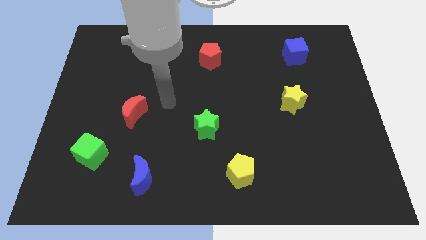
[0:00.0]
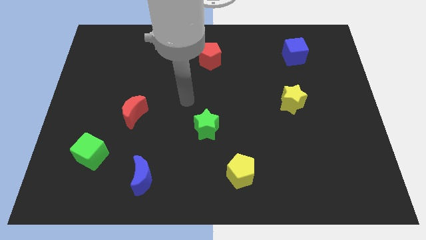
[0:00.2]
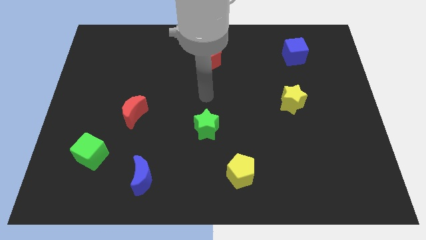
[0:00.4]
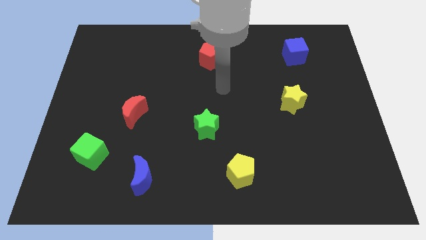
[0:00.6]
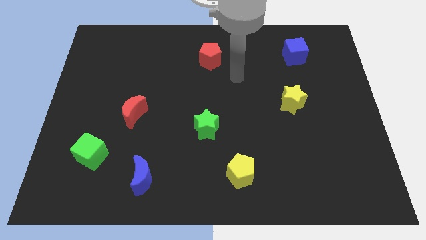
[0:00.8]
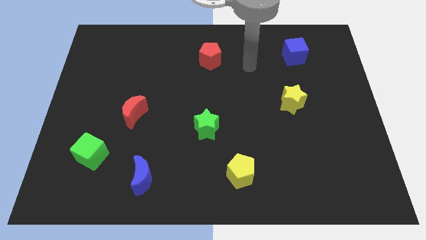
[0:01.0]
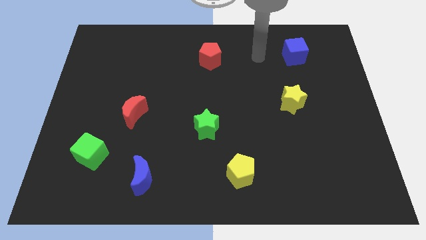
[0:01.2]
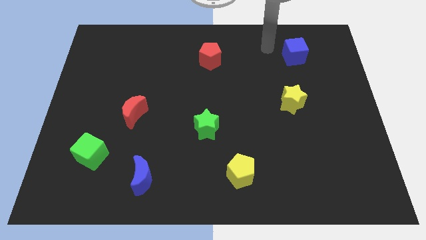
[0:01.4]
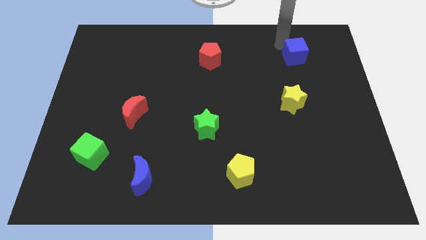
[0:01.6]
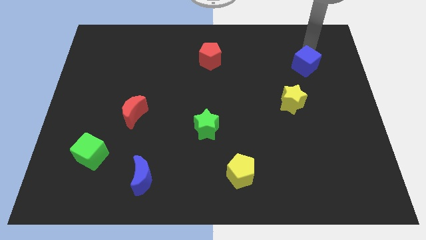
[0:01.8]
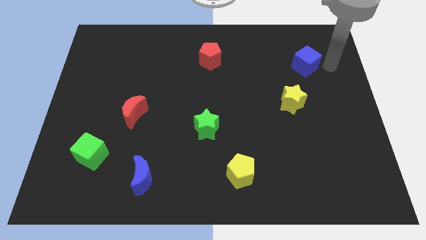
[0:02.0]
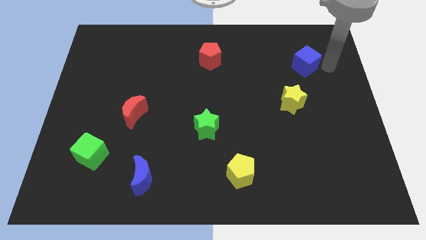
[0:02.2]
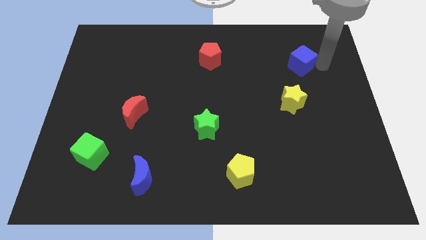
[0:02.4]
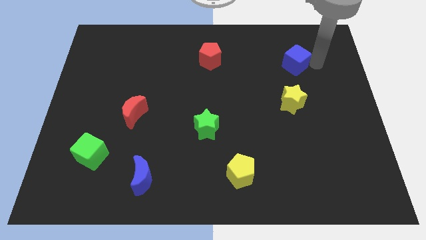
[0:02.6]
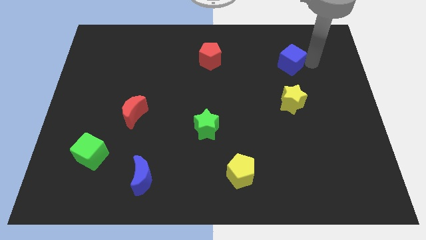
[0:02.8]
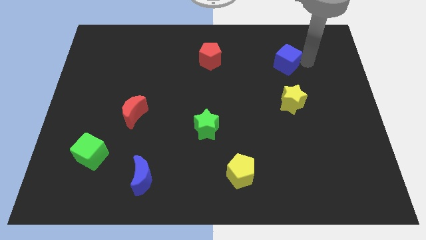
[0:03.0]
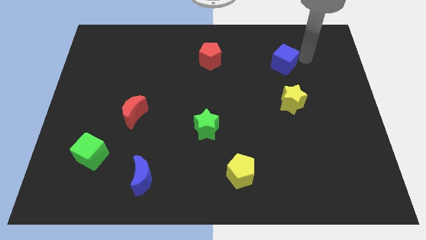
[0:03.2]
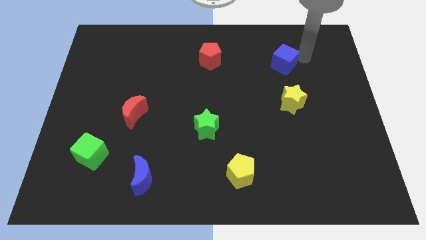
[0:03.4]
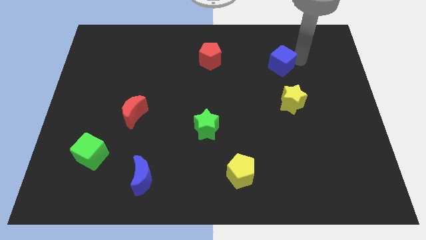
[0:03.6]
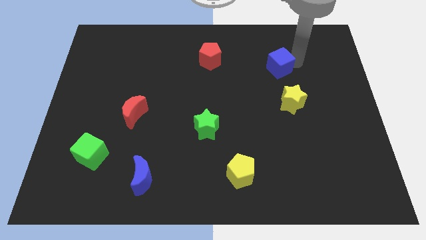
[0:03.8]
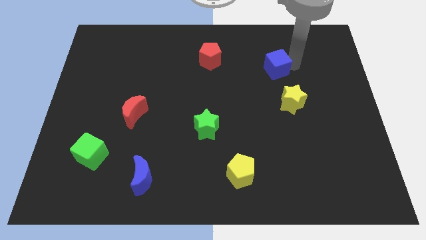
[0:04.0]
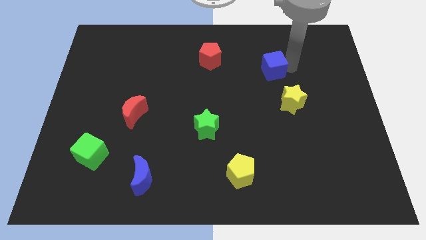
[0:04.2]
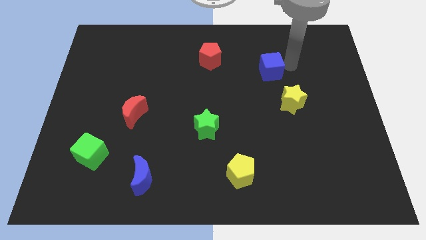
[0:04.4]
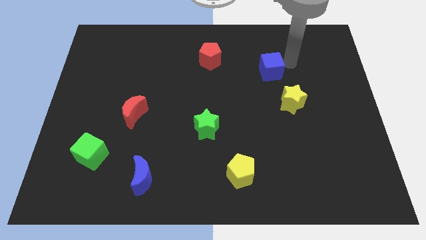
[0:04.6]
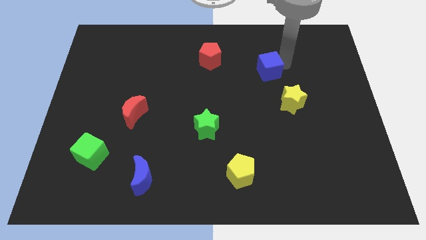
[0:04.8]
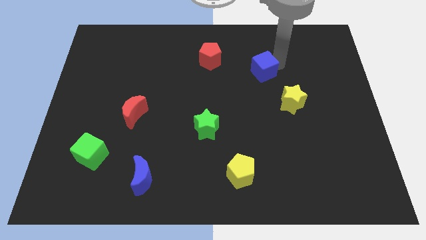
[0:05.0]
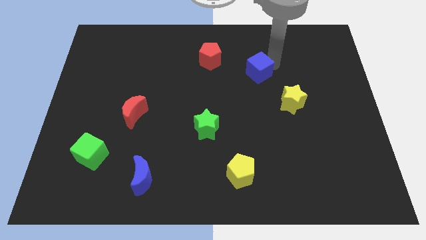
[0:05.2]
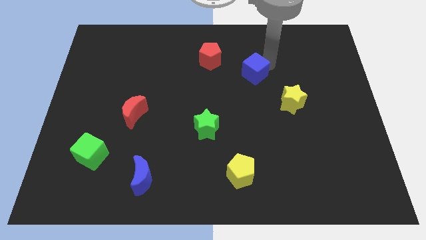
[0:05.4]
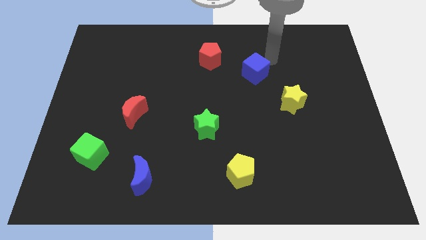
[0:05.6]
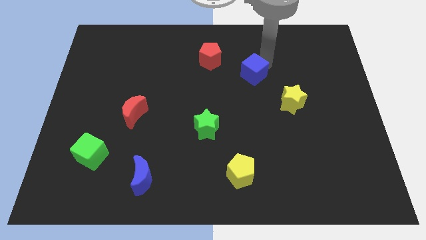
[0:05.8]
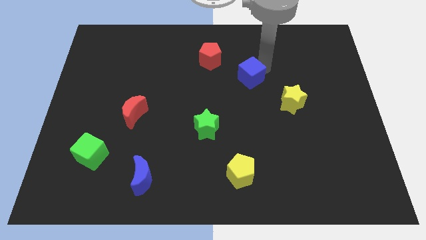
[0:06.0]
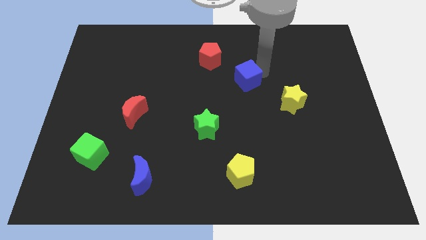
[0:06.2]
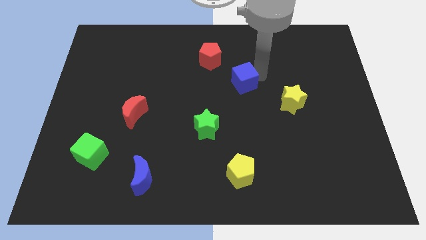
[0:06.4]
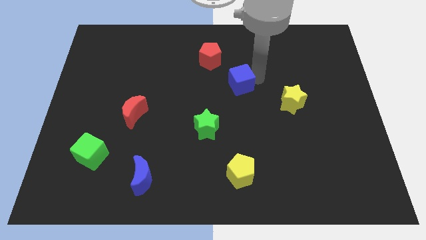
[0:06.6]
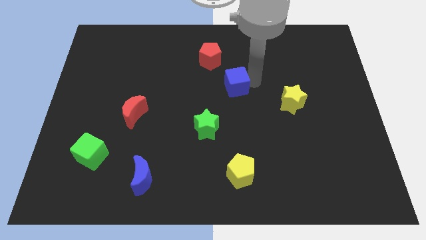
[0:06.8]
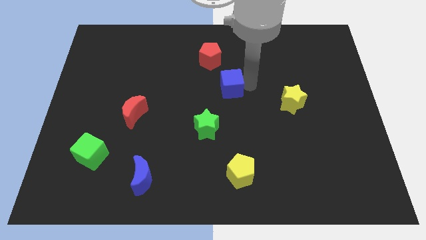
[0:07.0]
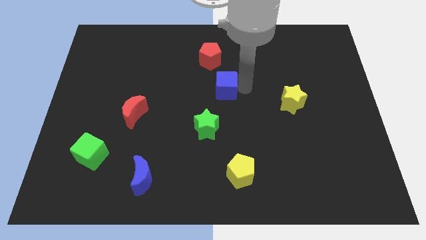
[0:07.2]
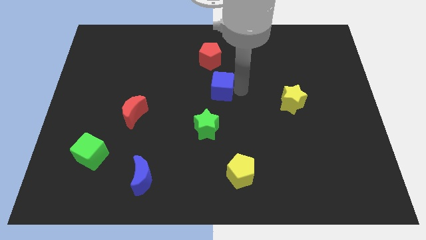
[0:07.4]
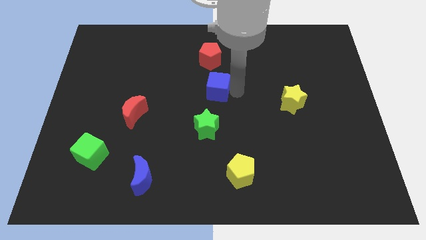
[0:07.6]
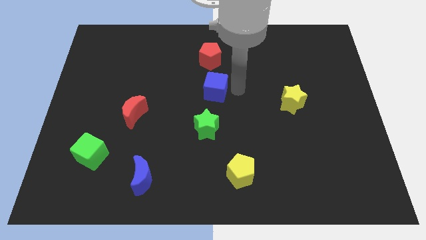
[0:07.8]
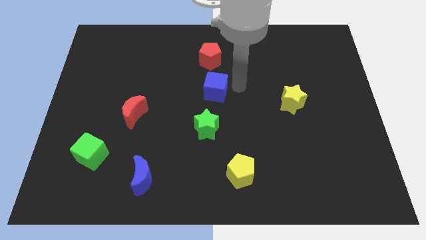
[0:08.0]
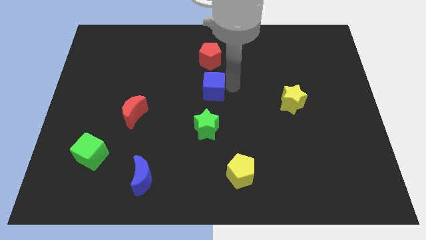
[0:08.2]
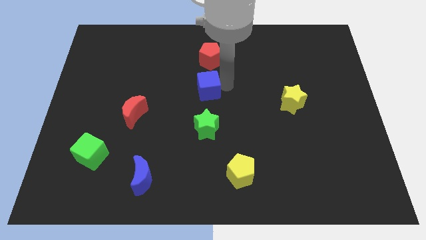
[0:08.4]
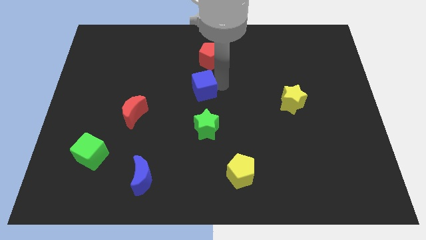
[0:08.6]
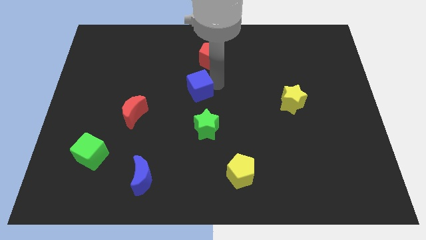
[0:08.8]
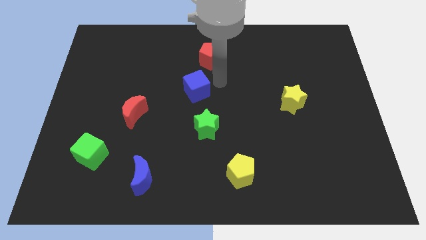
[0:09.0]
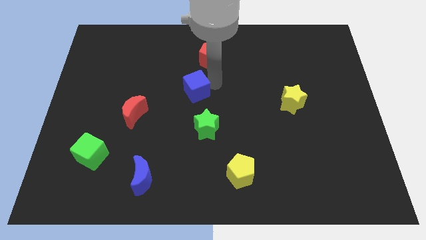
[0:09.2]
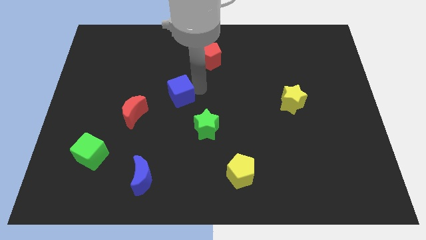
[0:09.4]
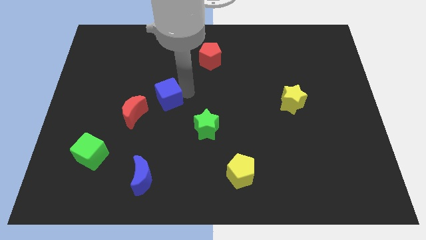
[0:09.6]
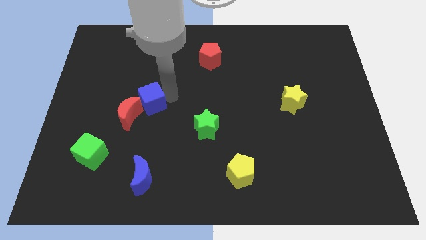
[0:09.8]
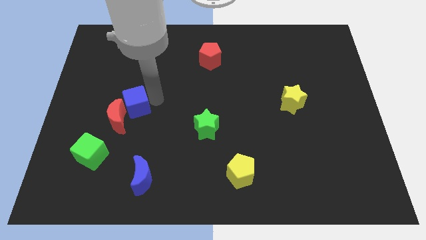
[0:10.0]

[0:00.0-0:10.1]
slide the blue cube to the red moon

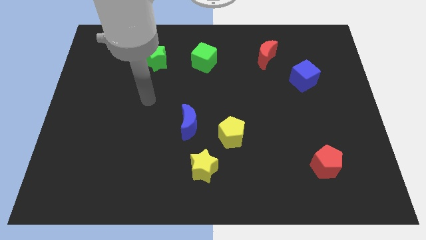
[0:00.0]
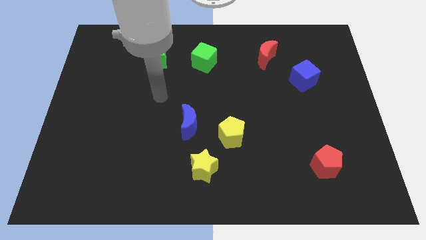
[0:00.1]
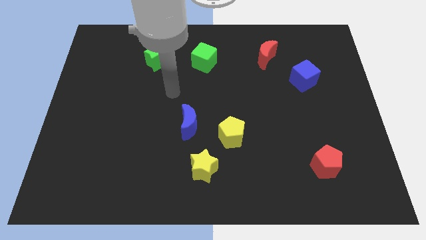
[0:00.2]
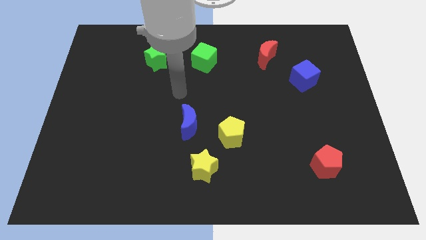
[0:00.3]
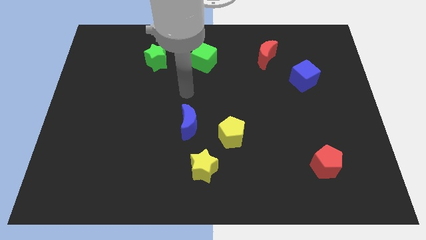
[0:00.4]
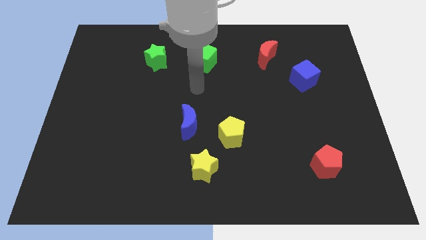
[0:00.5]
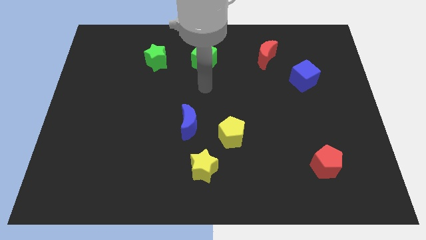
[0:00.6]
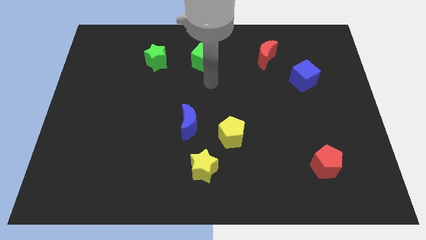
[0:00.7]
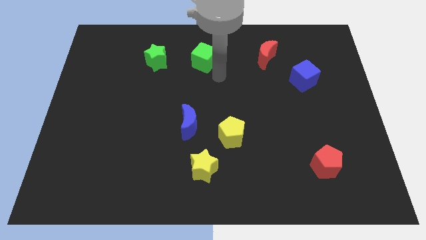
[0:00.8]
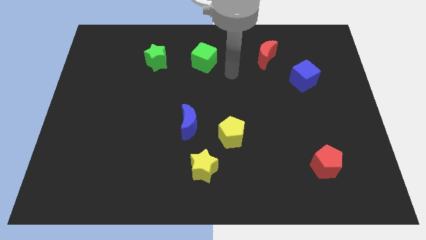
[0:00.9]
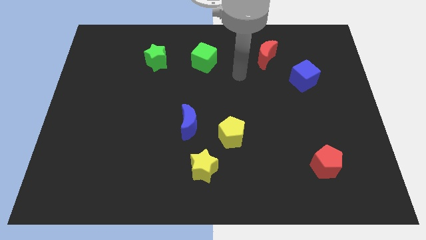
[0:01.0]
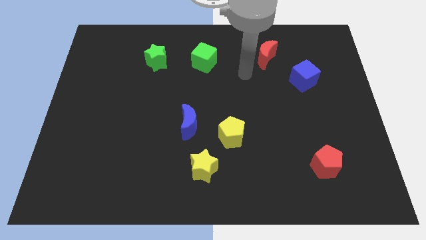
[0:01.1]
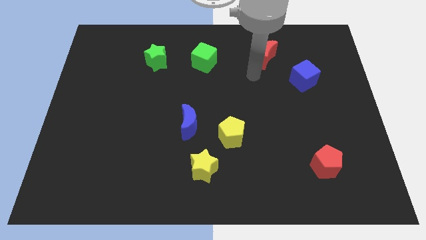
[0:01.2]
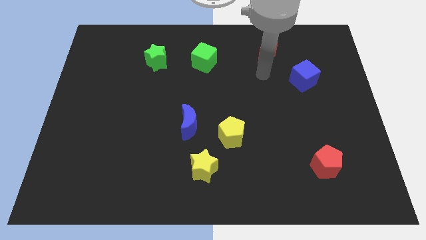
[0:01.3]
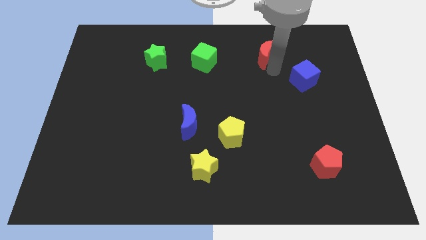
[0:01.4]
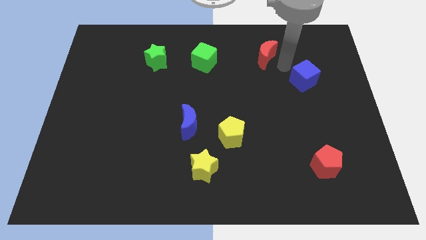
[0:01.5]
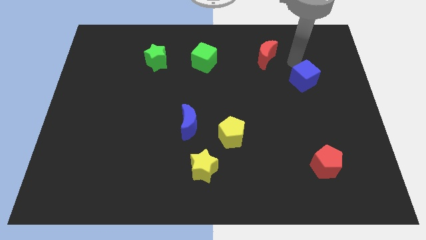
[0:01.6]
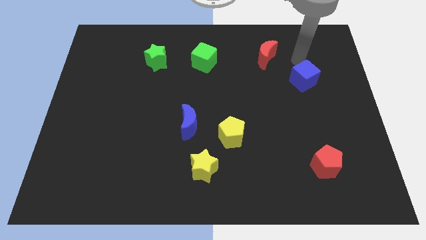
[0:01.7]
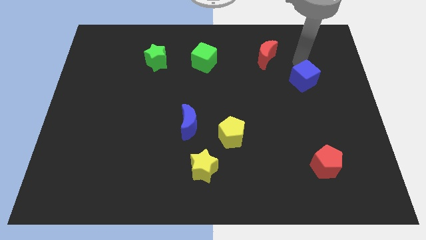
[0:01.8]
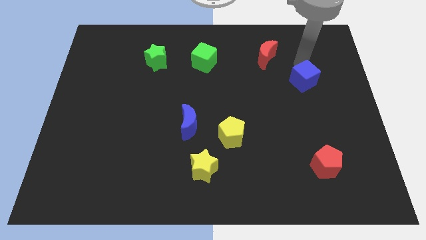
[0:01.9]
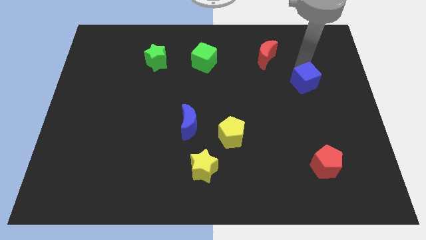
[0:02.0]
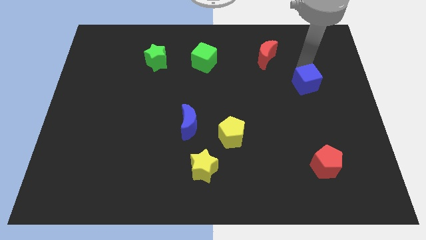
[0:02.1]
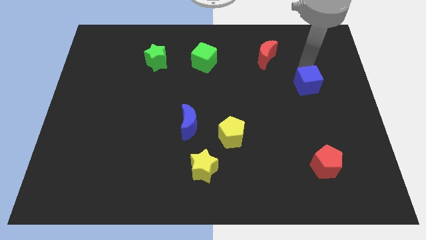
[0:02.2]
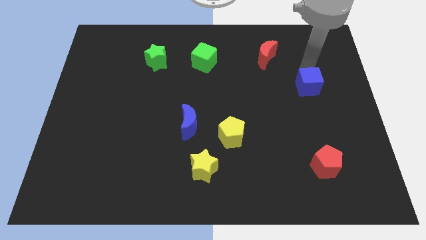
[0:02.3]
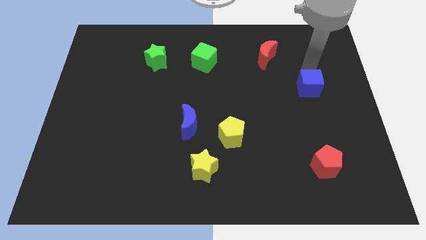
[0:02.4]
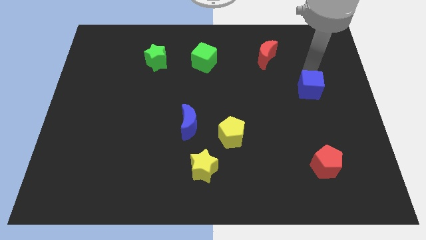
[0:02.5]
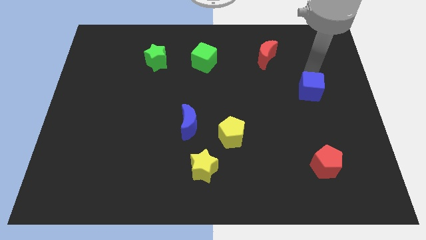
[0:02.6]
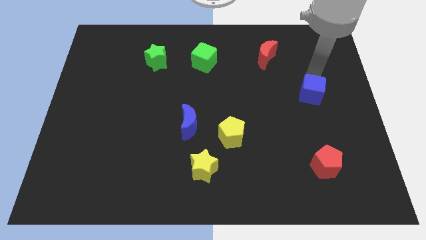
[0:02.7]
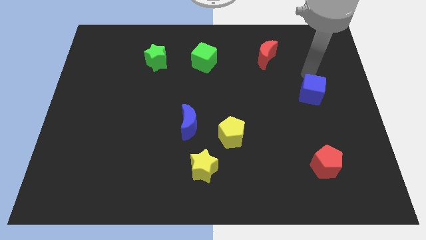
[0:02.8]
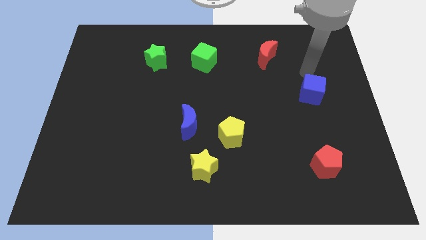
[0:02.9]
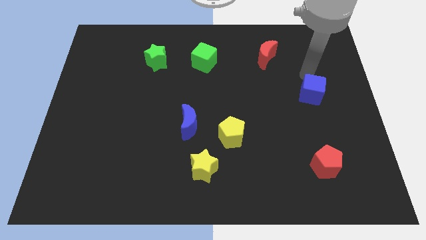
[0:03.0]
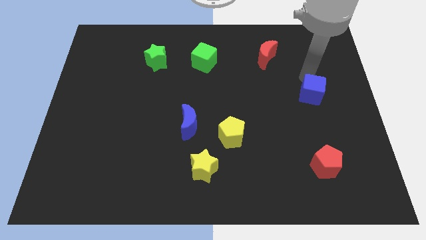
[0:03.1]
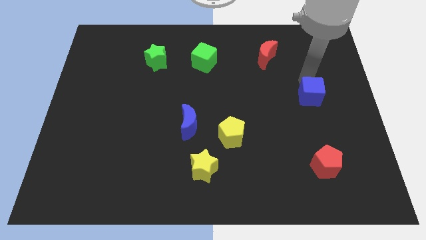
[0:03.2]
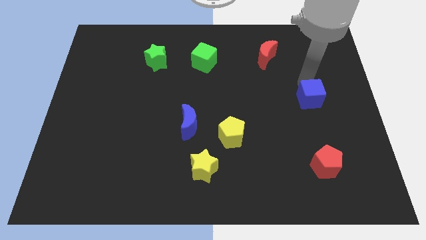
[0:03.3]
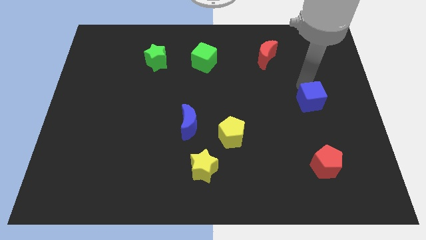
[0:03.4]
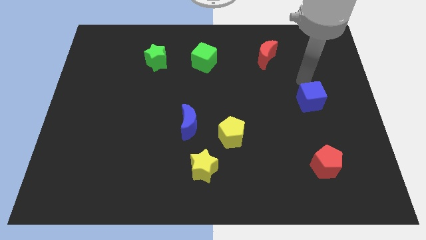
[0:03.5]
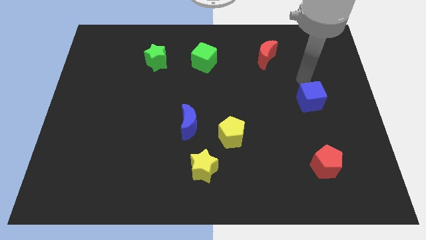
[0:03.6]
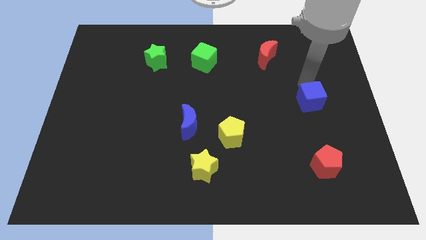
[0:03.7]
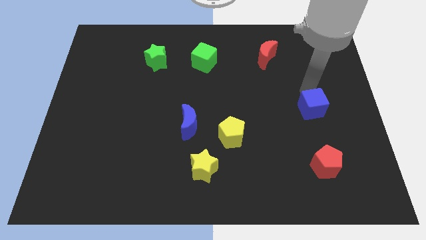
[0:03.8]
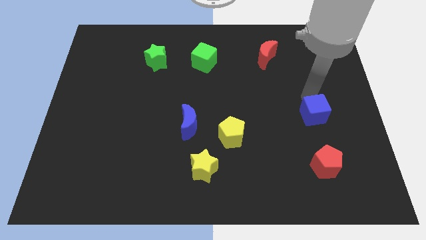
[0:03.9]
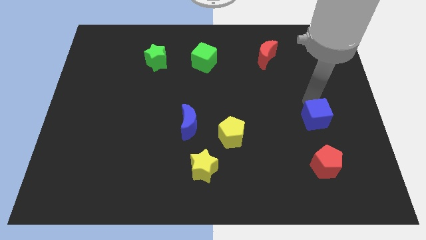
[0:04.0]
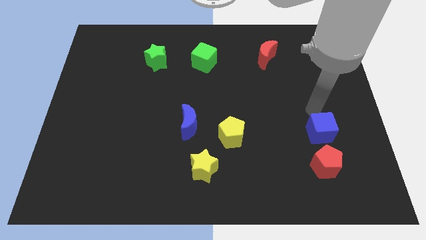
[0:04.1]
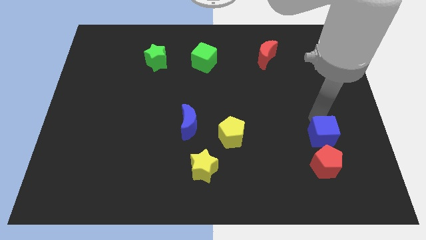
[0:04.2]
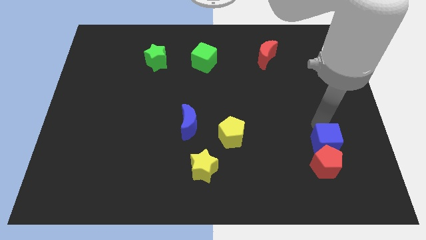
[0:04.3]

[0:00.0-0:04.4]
put the blue cube towards the red pentagon
